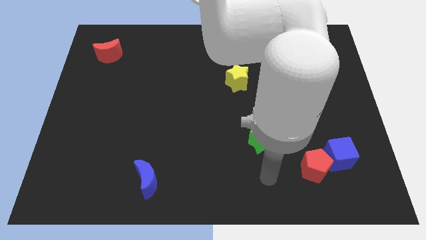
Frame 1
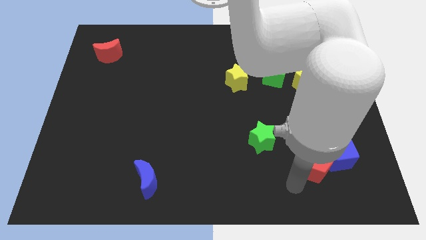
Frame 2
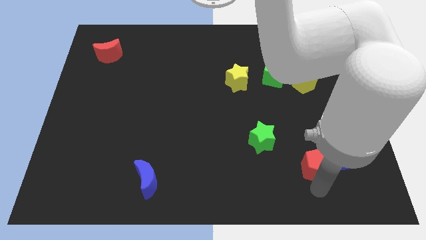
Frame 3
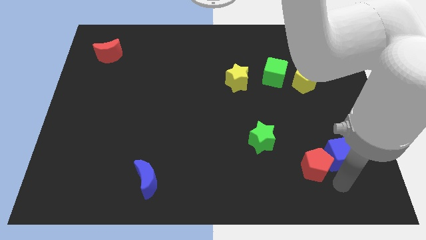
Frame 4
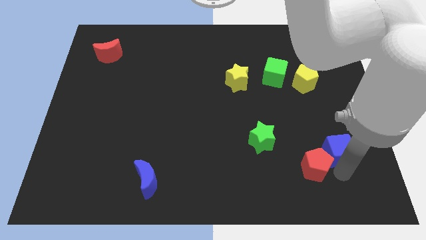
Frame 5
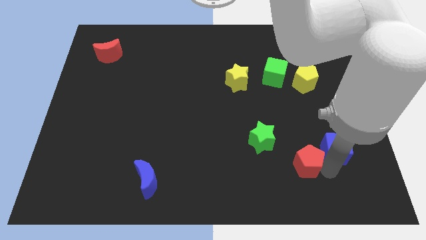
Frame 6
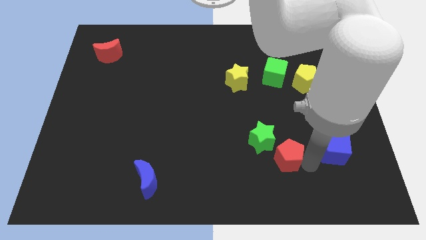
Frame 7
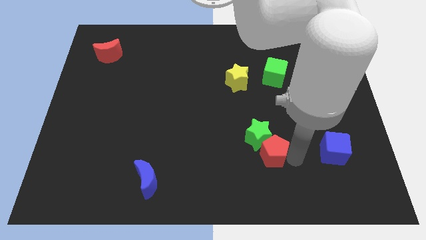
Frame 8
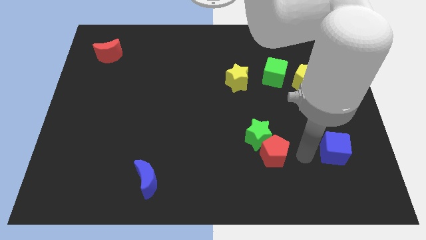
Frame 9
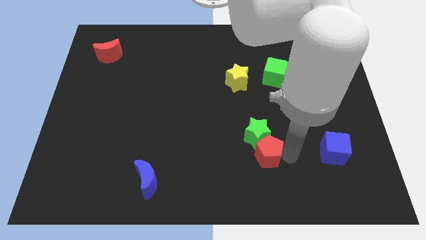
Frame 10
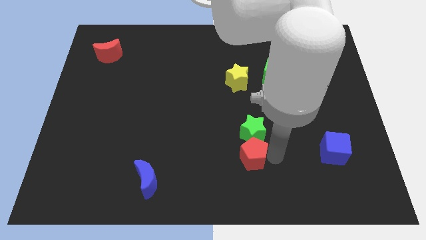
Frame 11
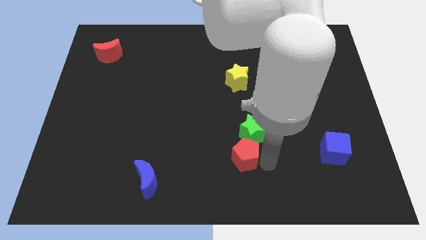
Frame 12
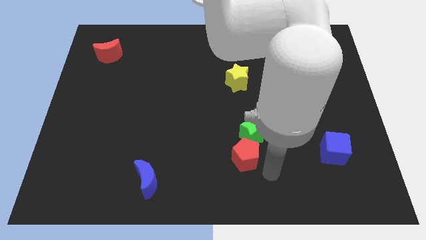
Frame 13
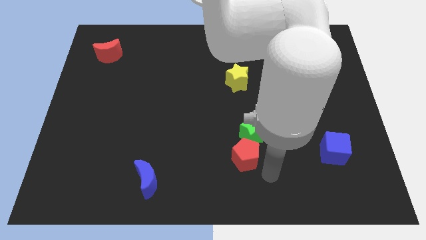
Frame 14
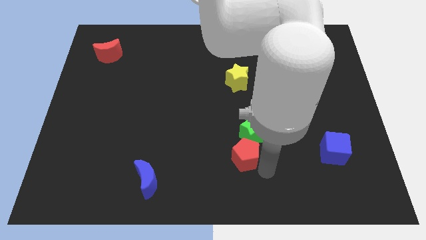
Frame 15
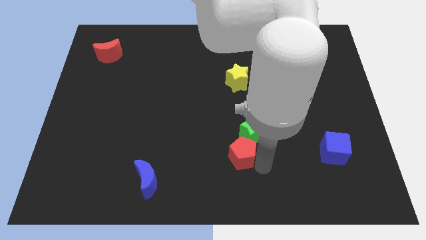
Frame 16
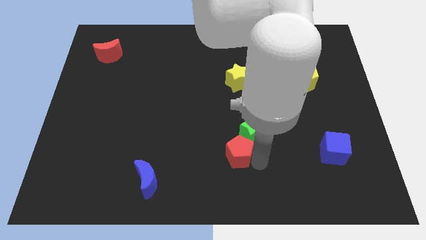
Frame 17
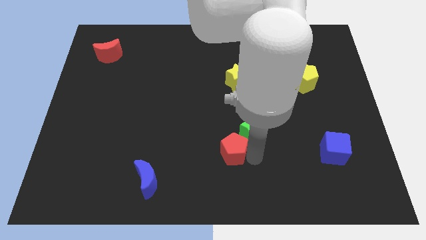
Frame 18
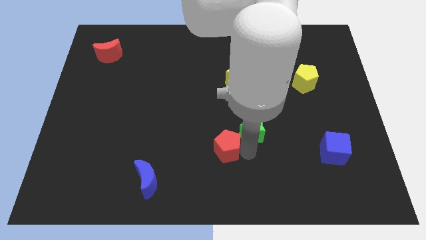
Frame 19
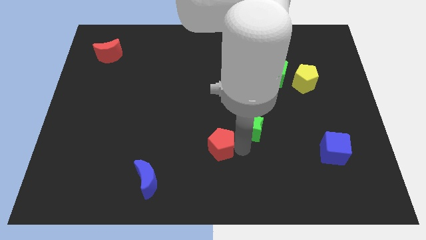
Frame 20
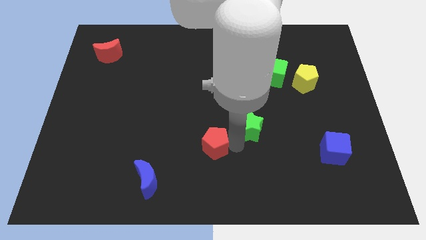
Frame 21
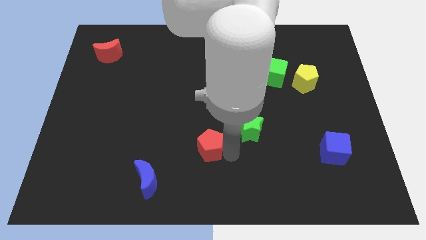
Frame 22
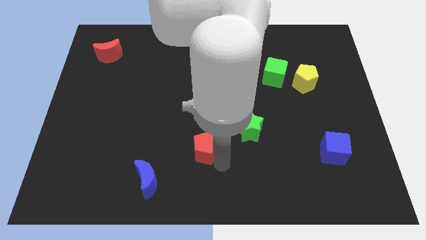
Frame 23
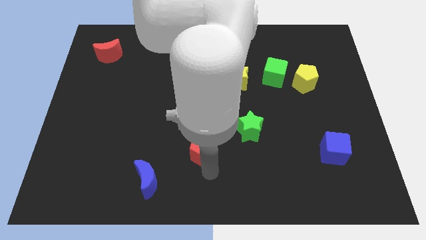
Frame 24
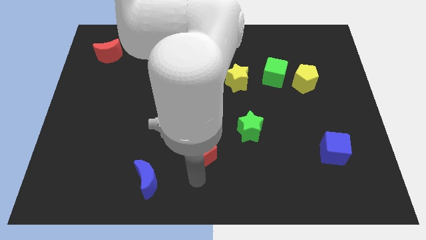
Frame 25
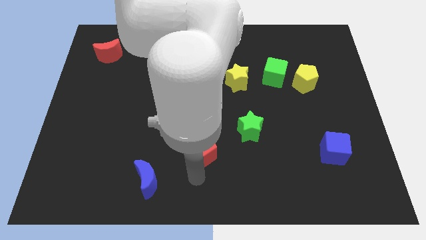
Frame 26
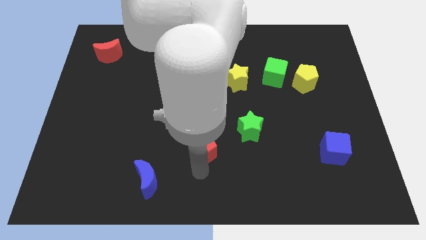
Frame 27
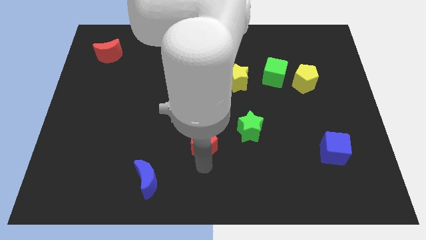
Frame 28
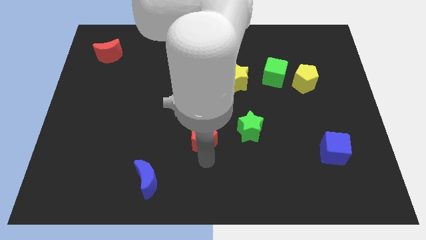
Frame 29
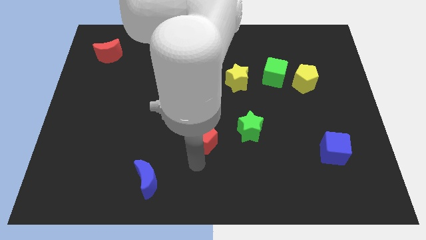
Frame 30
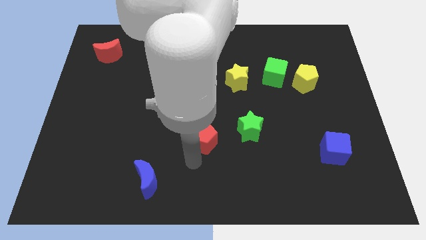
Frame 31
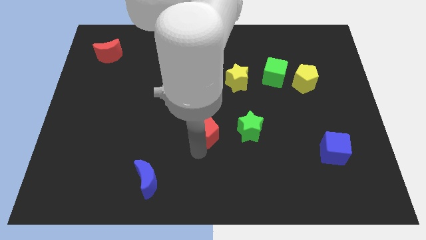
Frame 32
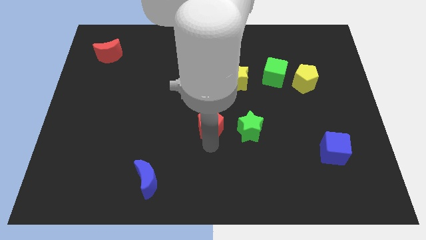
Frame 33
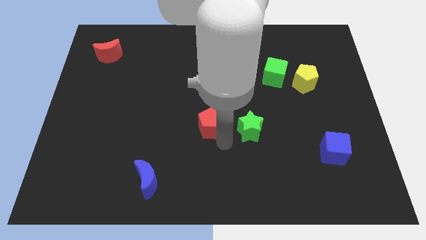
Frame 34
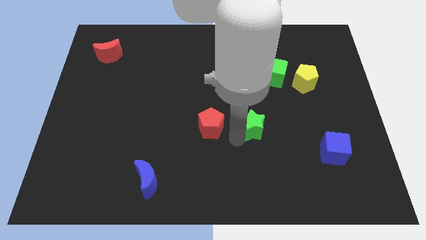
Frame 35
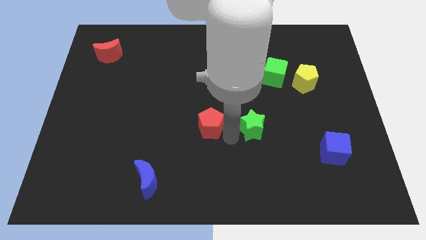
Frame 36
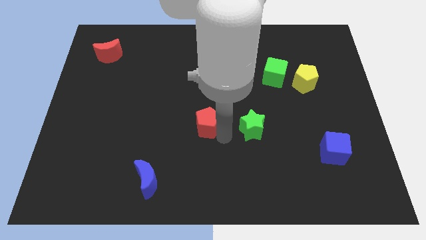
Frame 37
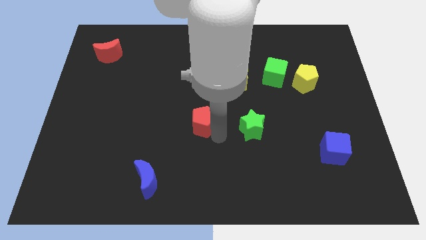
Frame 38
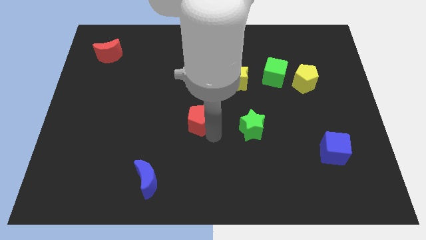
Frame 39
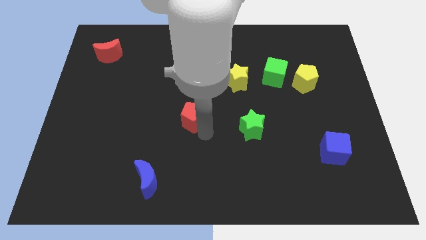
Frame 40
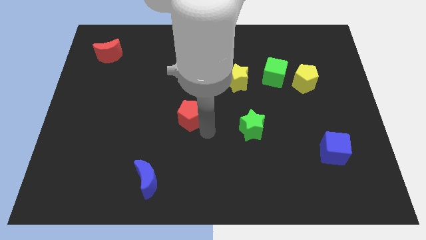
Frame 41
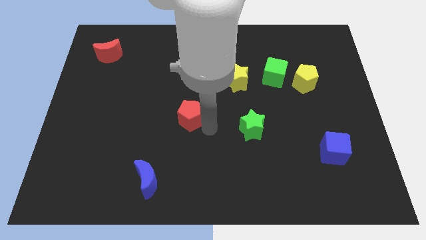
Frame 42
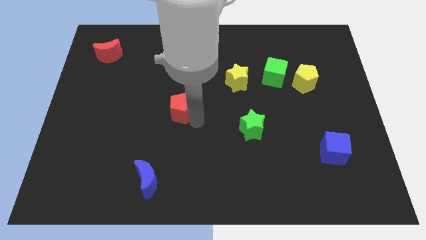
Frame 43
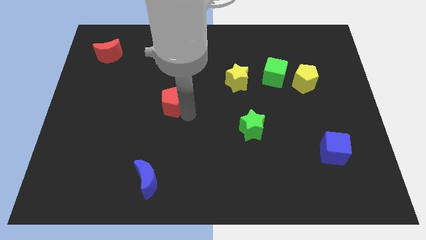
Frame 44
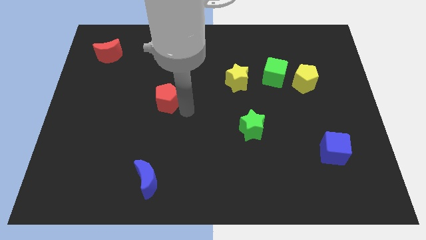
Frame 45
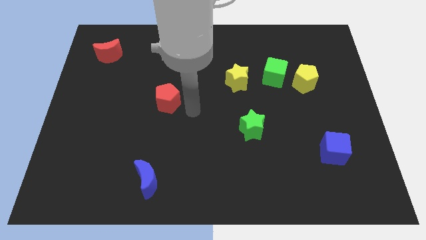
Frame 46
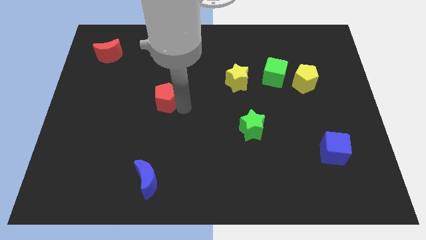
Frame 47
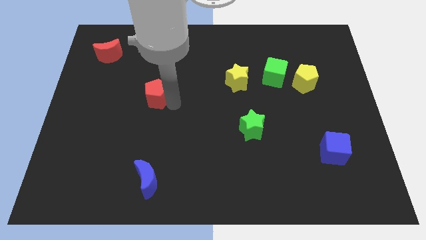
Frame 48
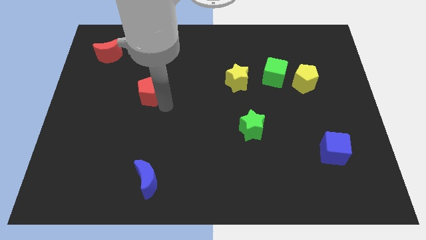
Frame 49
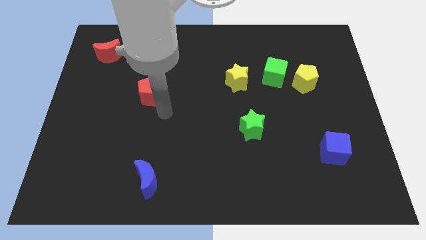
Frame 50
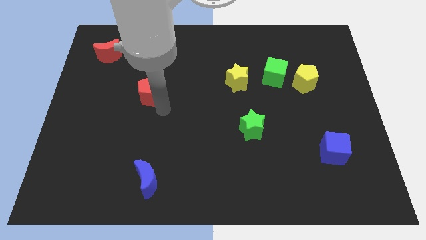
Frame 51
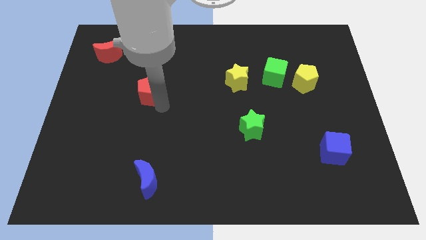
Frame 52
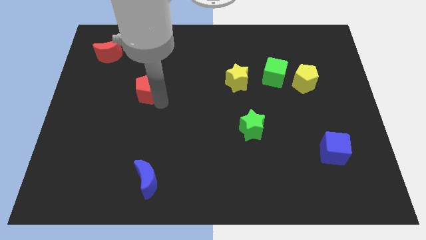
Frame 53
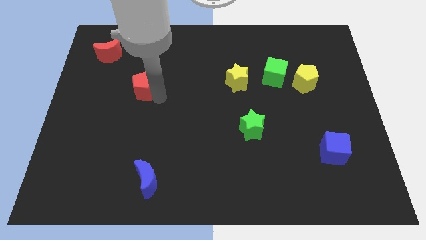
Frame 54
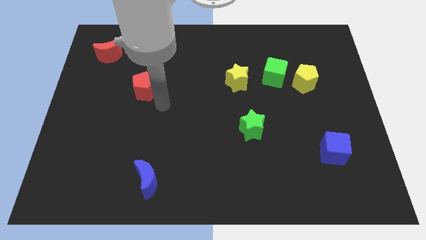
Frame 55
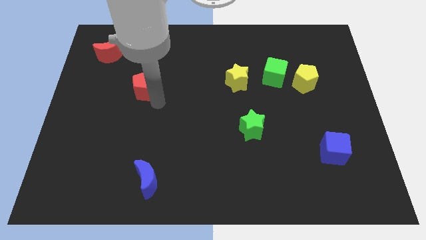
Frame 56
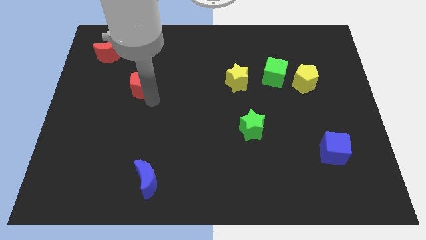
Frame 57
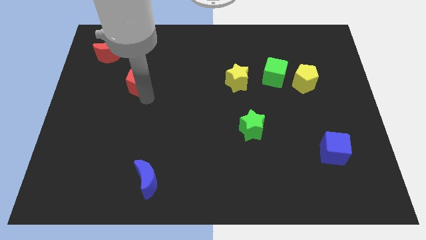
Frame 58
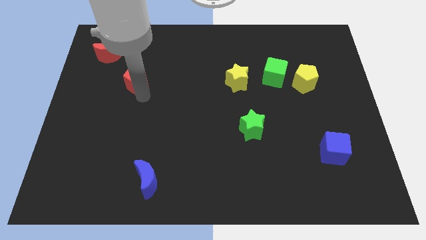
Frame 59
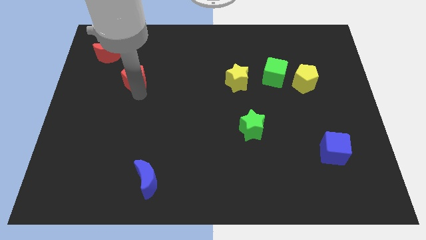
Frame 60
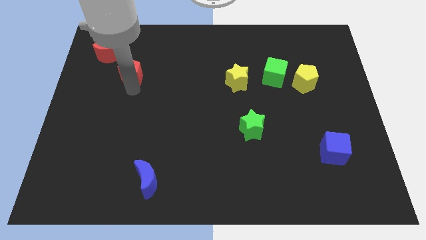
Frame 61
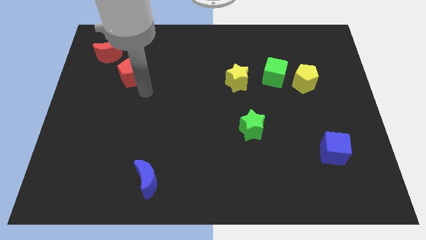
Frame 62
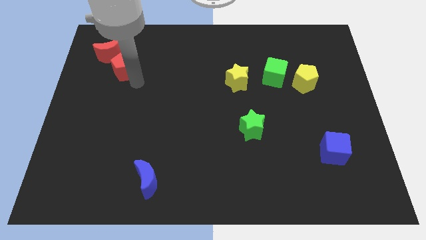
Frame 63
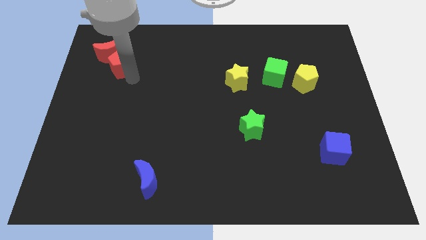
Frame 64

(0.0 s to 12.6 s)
slide the red pentagon towards the red moon
